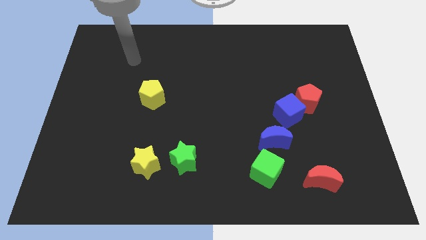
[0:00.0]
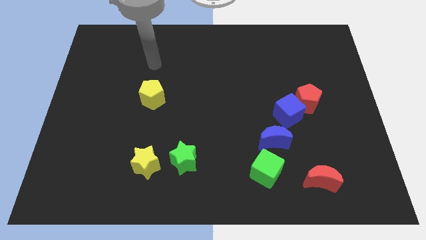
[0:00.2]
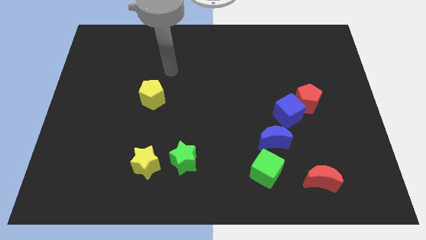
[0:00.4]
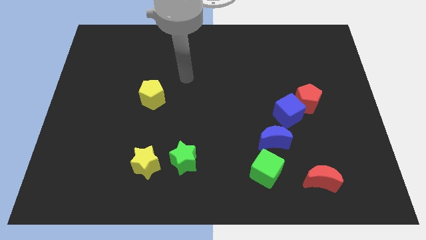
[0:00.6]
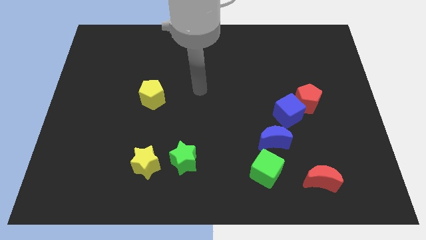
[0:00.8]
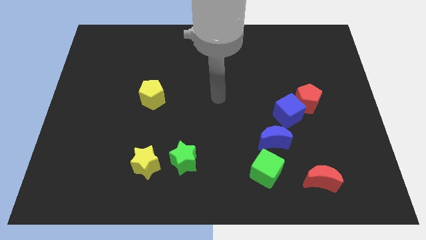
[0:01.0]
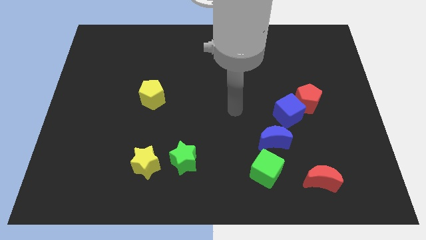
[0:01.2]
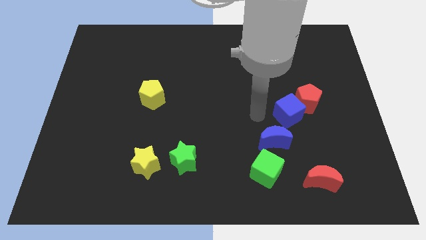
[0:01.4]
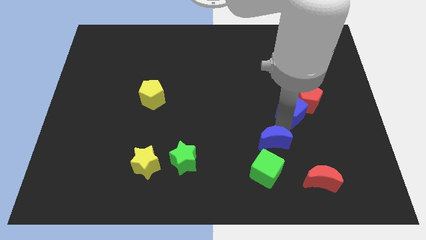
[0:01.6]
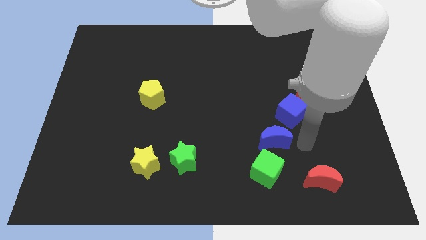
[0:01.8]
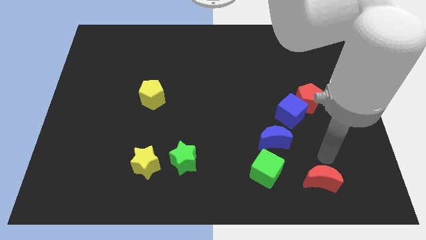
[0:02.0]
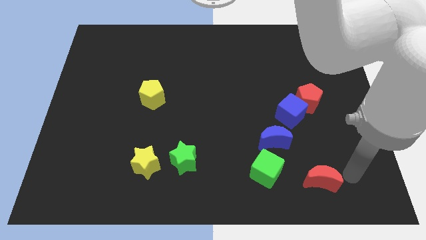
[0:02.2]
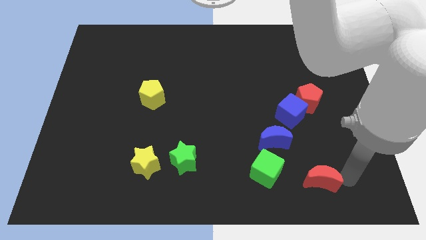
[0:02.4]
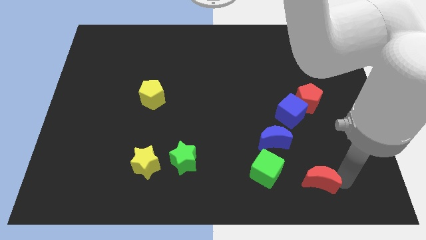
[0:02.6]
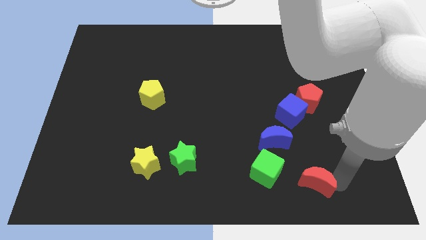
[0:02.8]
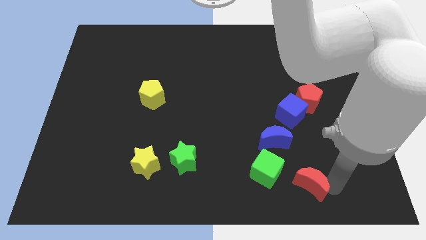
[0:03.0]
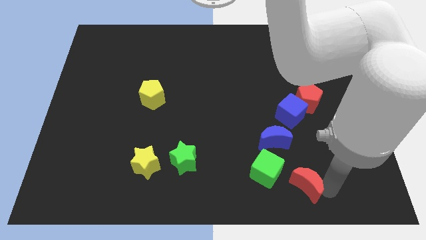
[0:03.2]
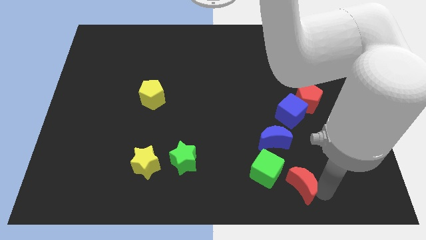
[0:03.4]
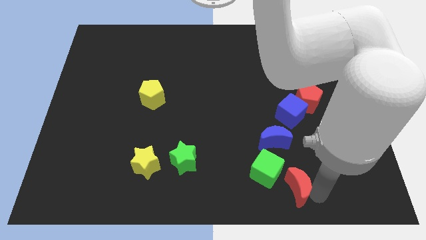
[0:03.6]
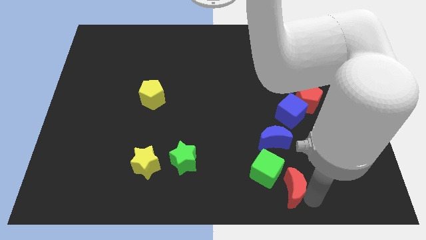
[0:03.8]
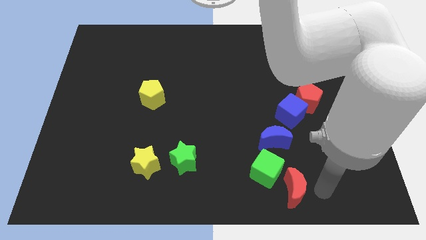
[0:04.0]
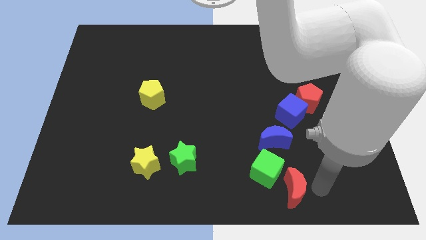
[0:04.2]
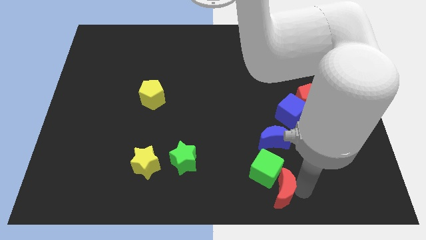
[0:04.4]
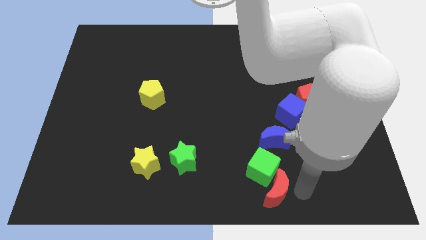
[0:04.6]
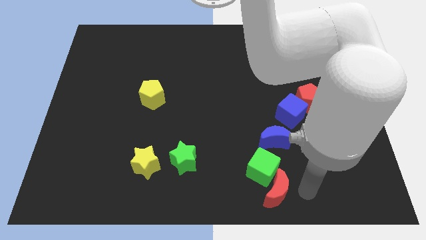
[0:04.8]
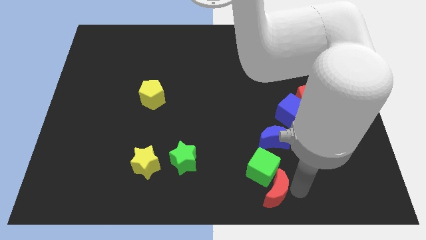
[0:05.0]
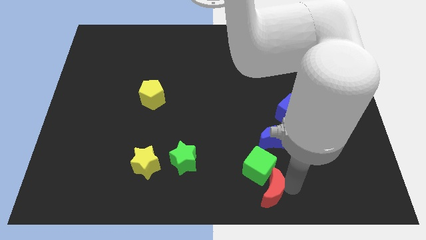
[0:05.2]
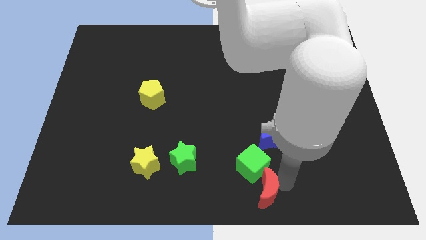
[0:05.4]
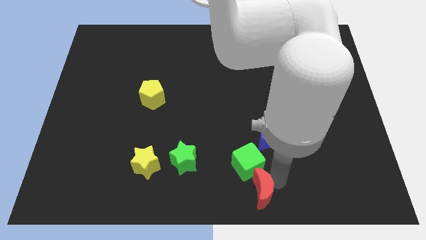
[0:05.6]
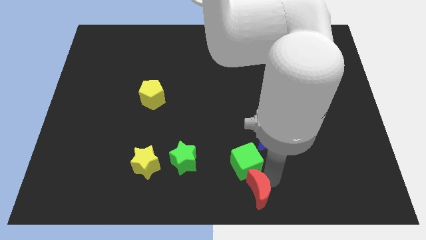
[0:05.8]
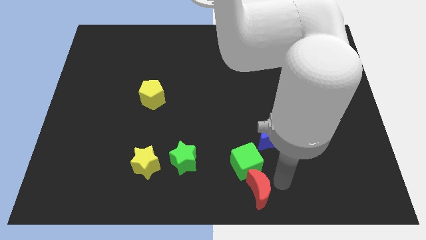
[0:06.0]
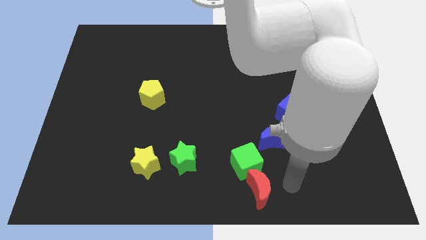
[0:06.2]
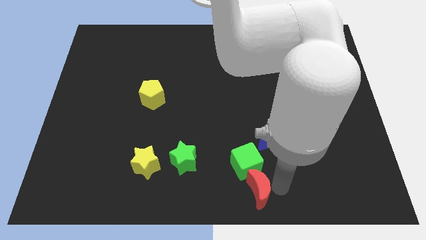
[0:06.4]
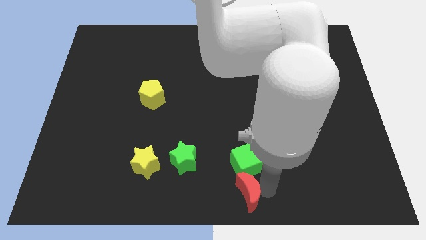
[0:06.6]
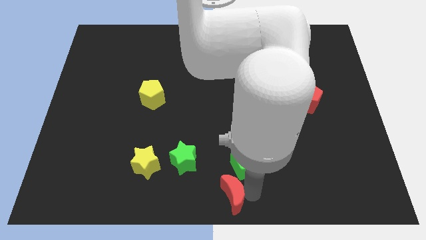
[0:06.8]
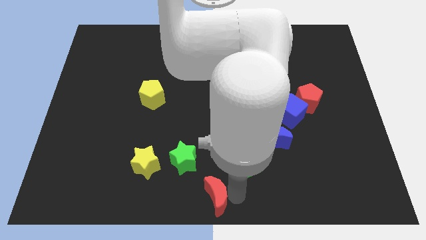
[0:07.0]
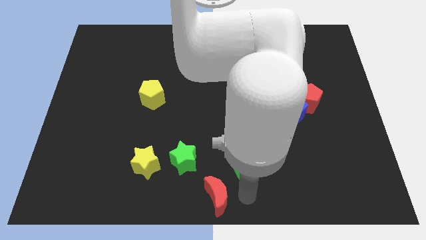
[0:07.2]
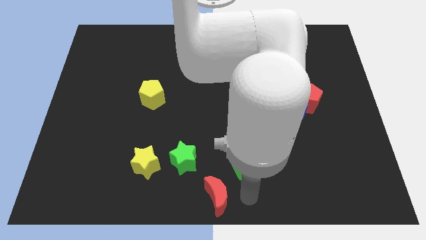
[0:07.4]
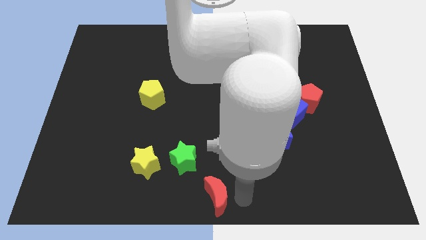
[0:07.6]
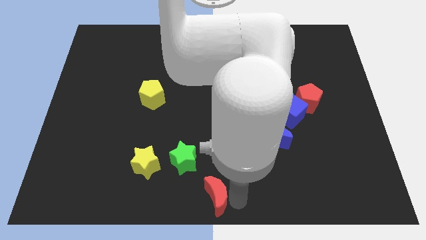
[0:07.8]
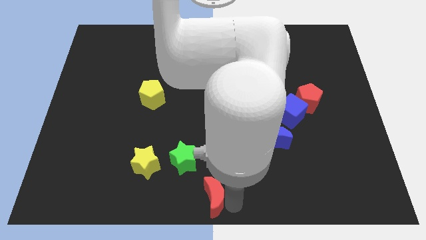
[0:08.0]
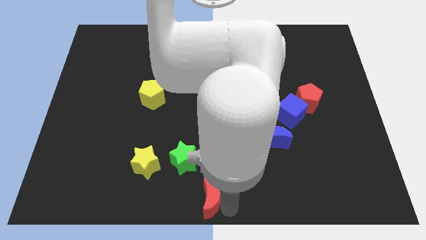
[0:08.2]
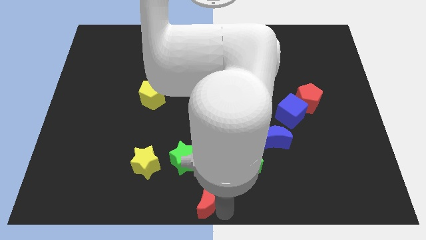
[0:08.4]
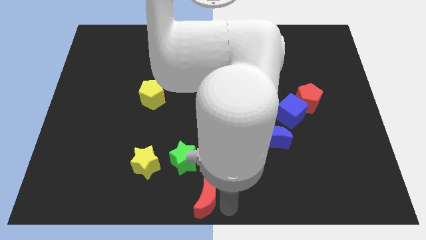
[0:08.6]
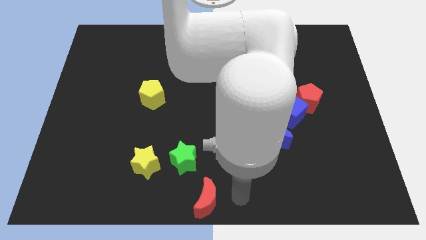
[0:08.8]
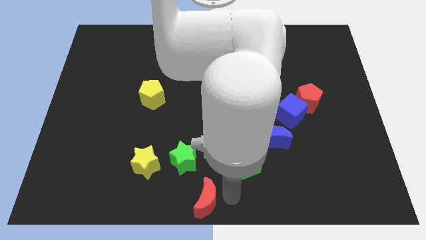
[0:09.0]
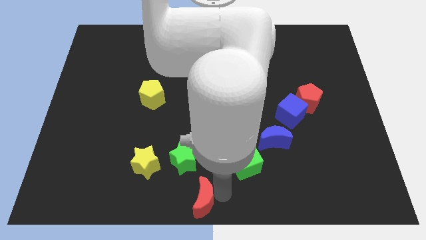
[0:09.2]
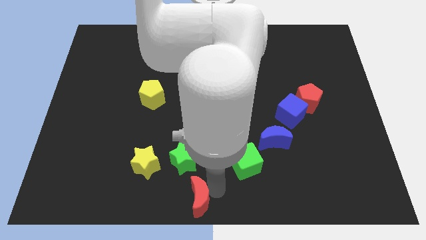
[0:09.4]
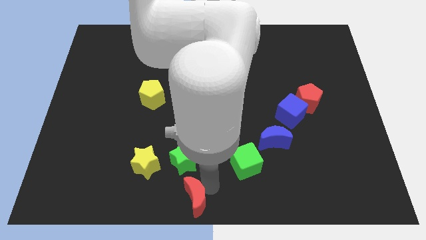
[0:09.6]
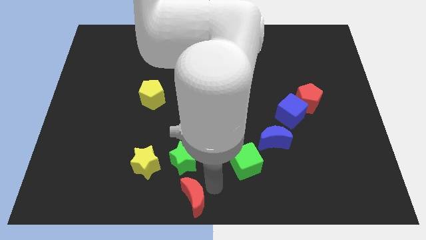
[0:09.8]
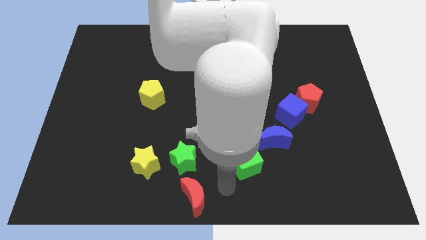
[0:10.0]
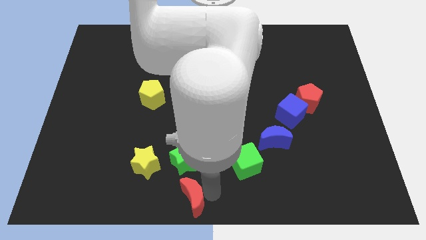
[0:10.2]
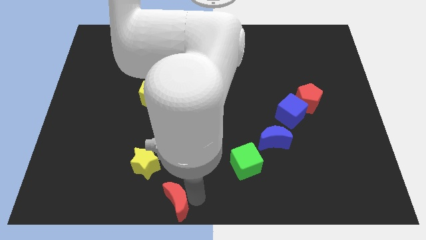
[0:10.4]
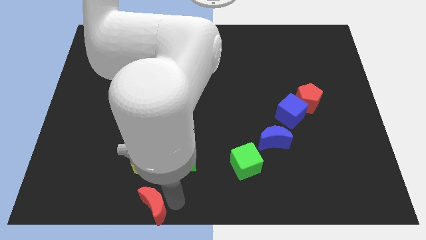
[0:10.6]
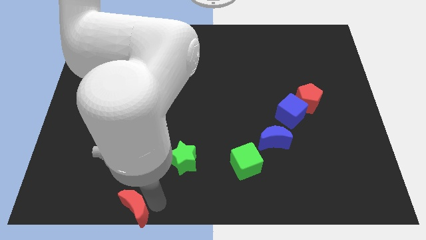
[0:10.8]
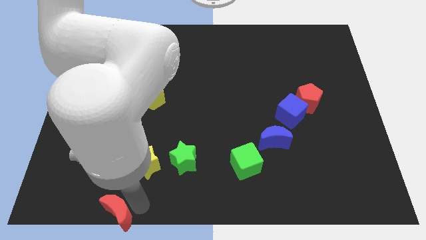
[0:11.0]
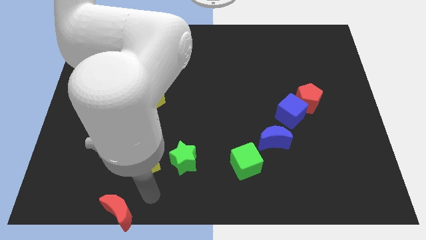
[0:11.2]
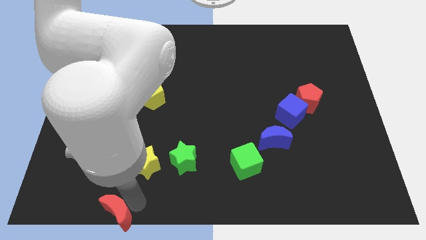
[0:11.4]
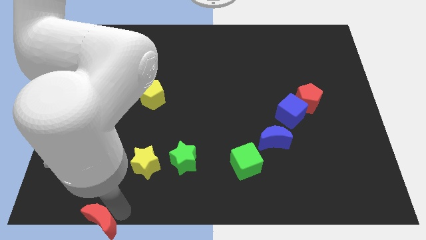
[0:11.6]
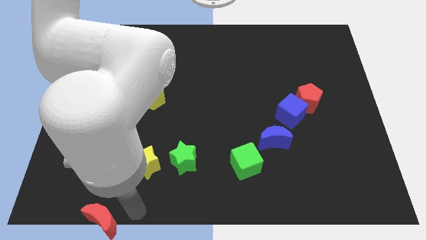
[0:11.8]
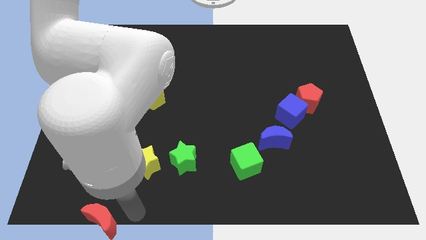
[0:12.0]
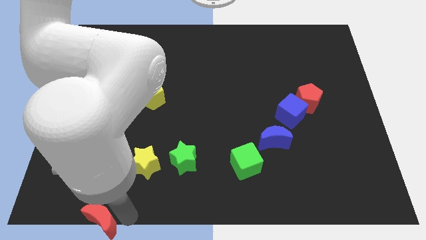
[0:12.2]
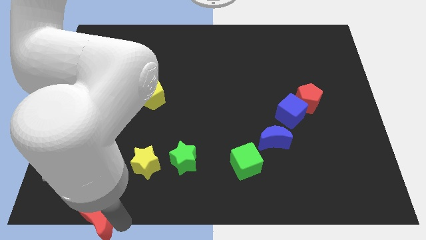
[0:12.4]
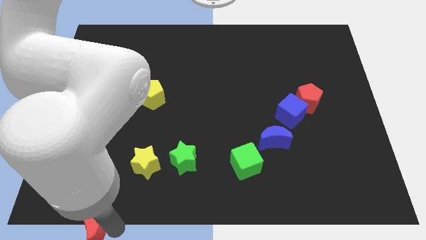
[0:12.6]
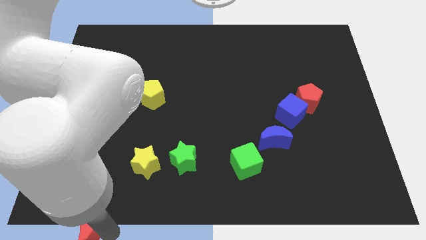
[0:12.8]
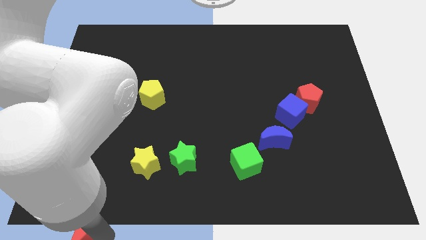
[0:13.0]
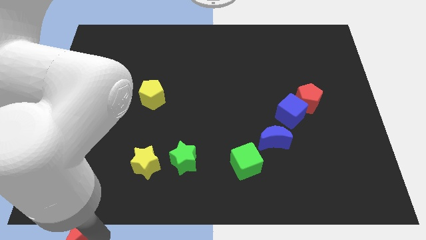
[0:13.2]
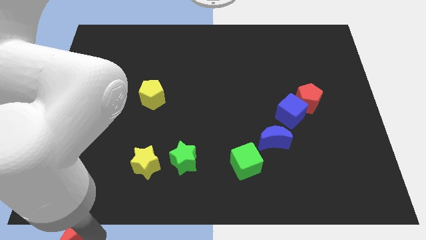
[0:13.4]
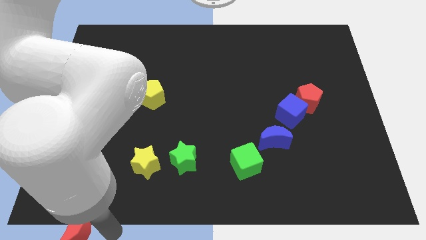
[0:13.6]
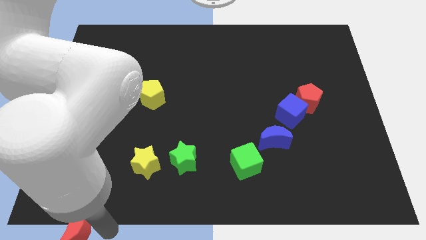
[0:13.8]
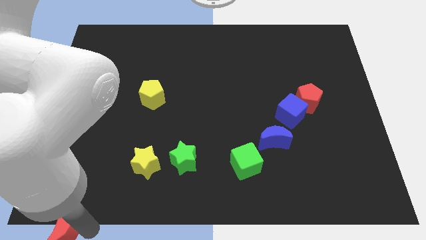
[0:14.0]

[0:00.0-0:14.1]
move the red moon to the lower left corner

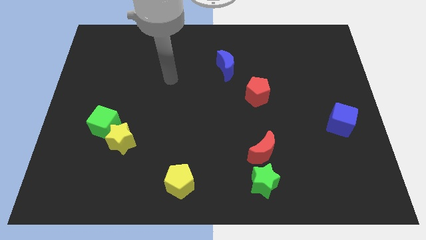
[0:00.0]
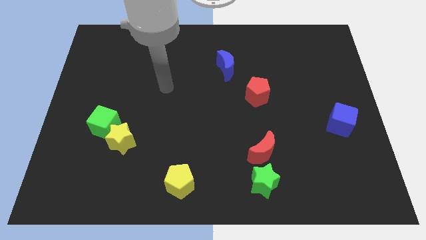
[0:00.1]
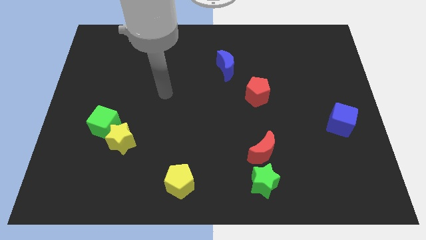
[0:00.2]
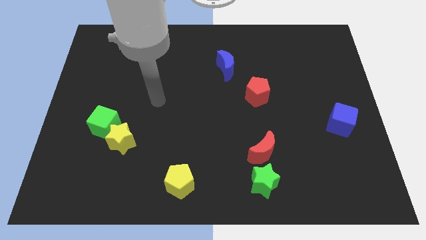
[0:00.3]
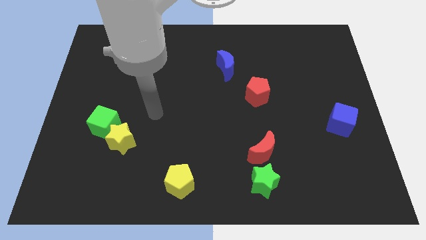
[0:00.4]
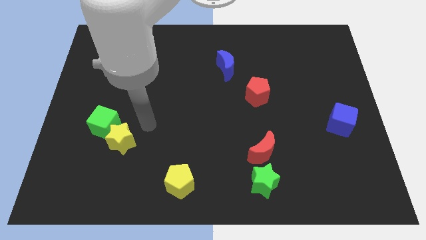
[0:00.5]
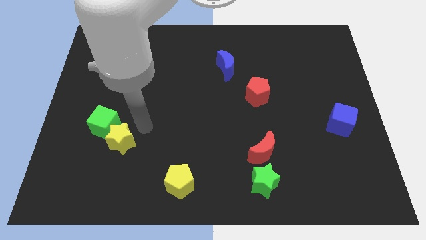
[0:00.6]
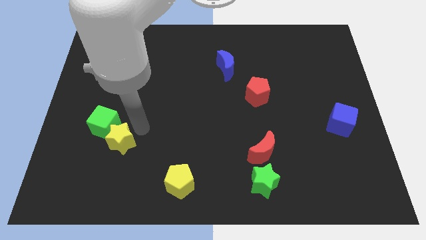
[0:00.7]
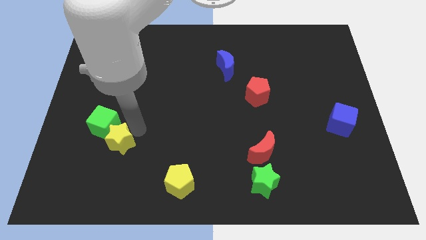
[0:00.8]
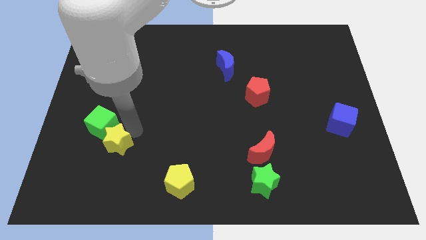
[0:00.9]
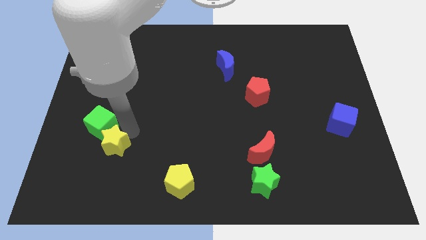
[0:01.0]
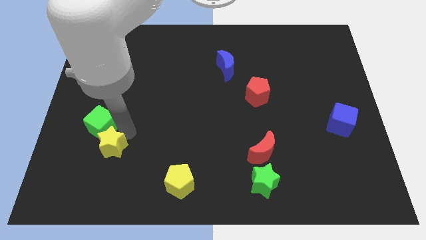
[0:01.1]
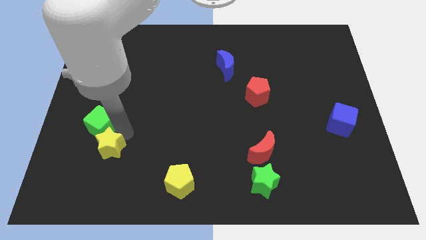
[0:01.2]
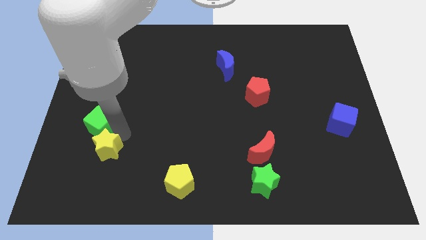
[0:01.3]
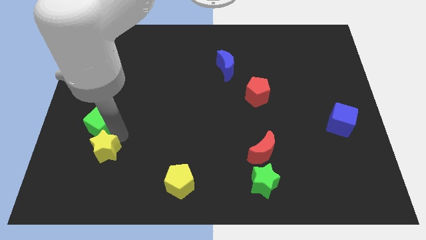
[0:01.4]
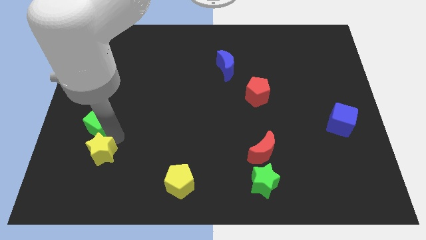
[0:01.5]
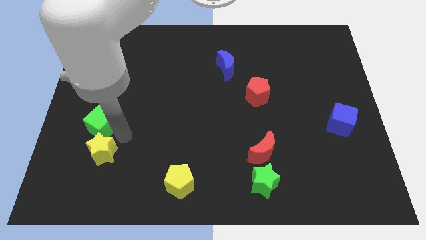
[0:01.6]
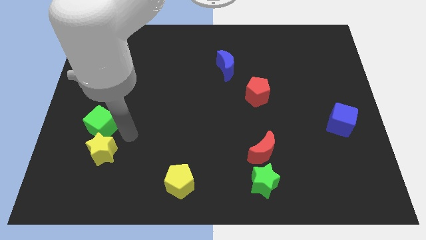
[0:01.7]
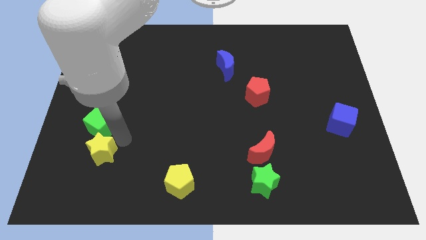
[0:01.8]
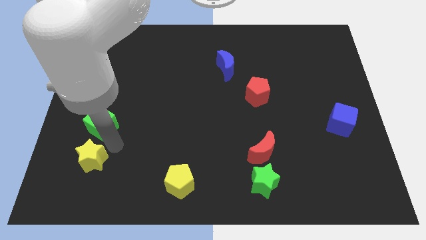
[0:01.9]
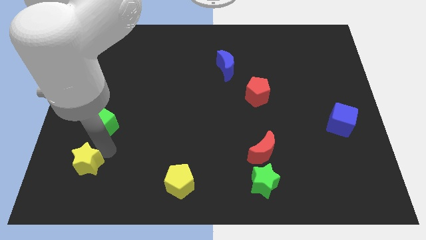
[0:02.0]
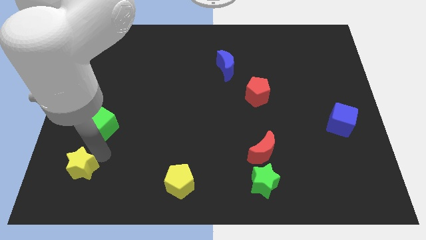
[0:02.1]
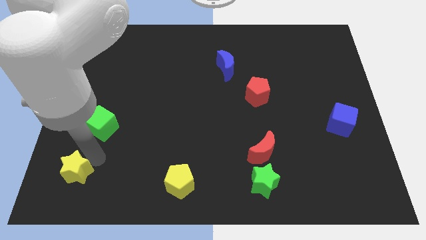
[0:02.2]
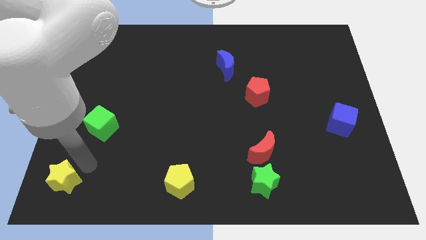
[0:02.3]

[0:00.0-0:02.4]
slide the yellow star to the bottom left
